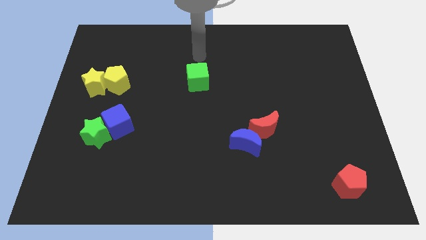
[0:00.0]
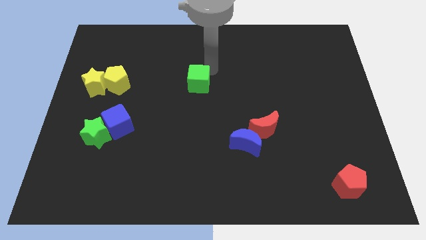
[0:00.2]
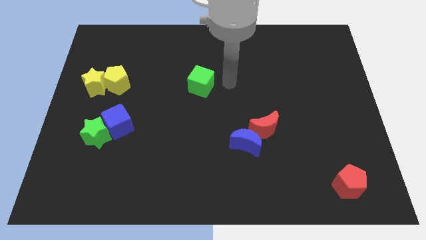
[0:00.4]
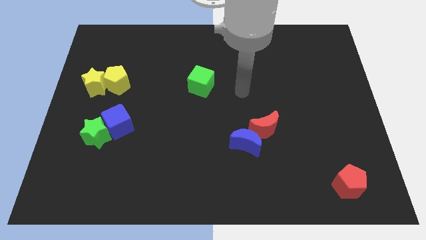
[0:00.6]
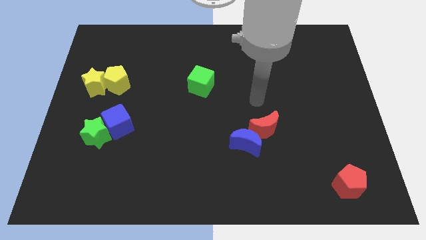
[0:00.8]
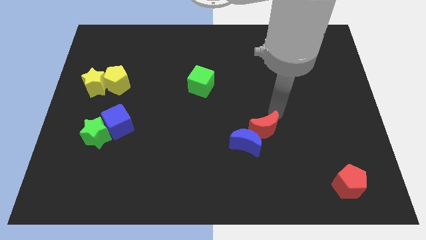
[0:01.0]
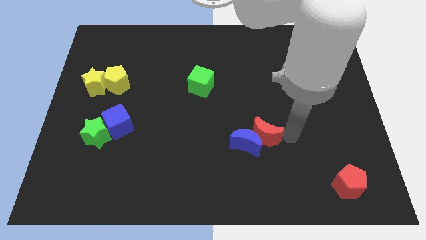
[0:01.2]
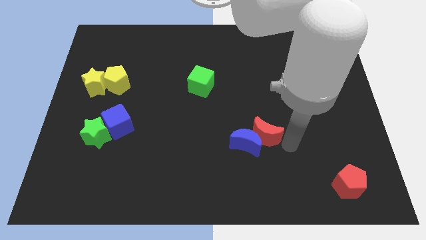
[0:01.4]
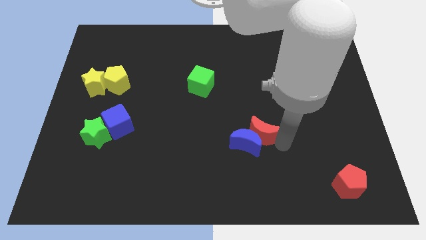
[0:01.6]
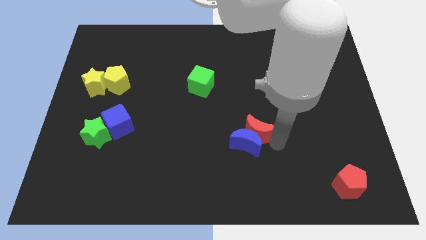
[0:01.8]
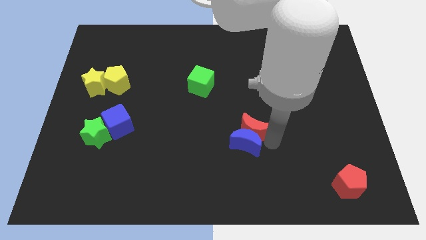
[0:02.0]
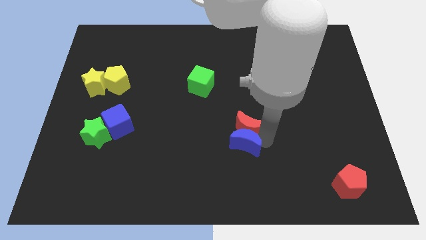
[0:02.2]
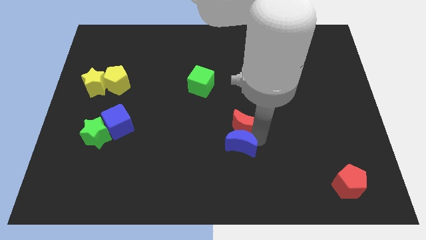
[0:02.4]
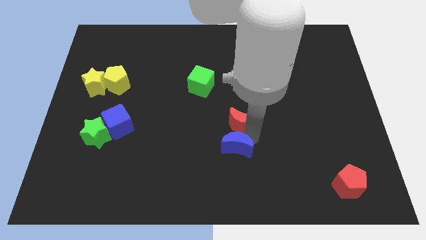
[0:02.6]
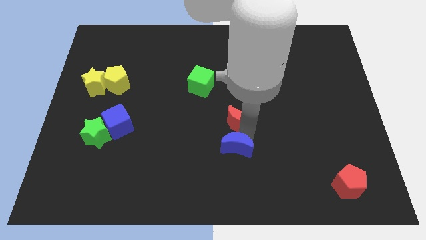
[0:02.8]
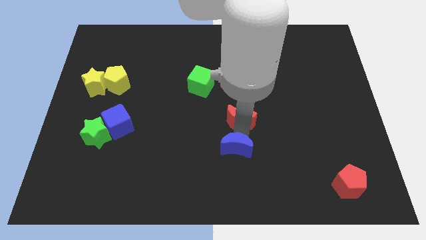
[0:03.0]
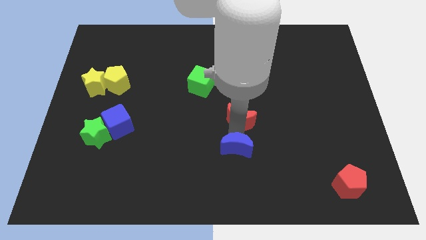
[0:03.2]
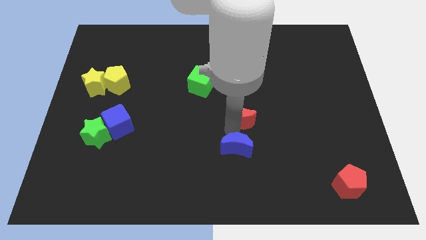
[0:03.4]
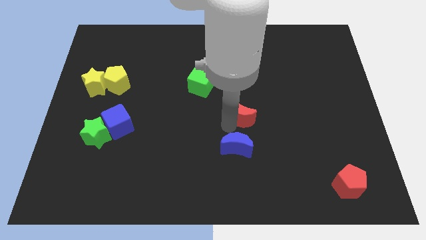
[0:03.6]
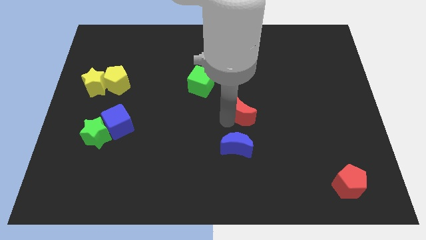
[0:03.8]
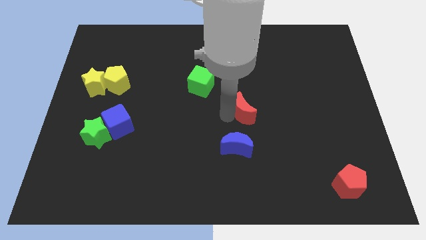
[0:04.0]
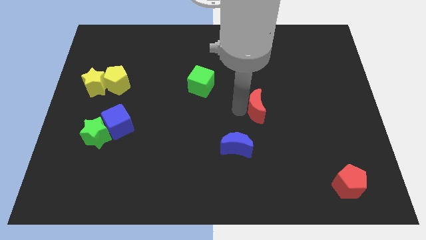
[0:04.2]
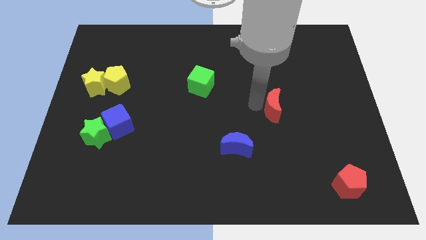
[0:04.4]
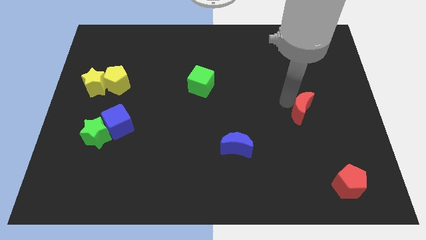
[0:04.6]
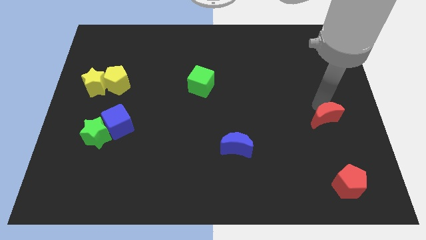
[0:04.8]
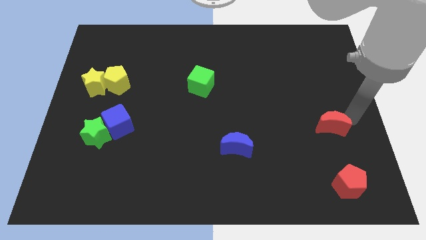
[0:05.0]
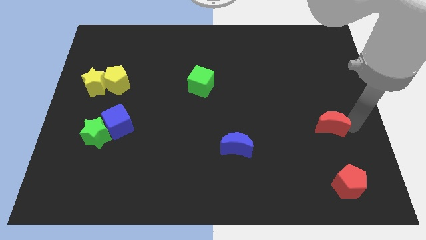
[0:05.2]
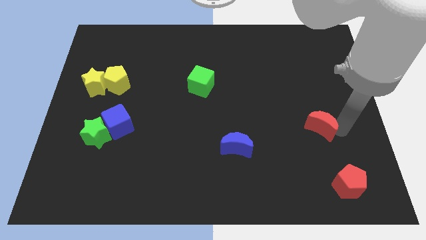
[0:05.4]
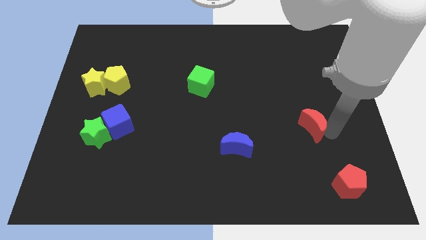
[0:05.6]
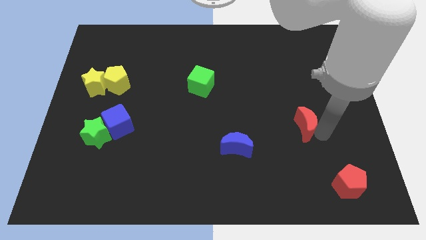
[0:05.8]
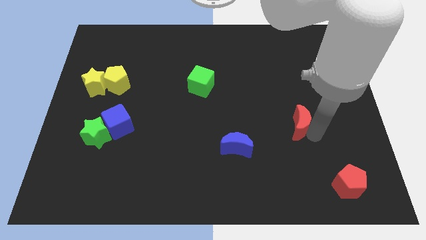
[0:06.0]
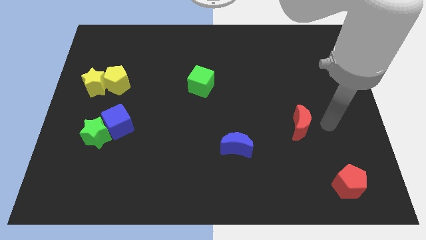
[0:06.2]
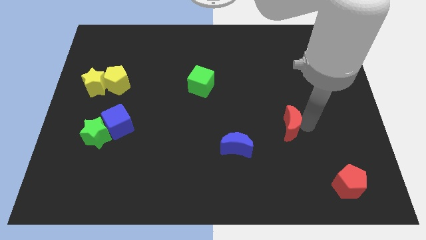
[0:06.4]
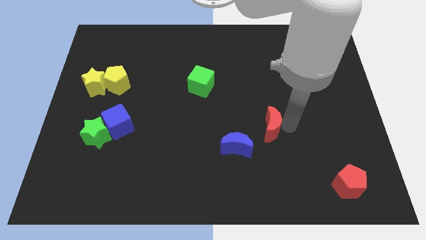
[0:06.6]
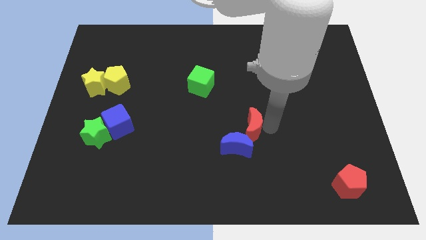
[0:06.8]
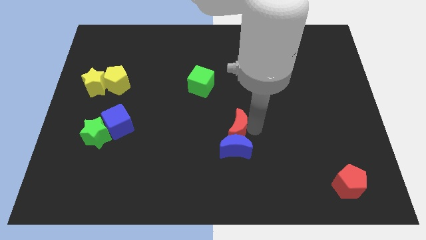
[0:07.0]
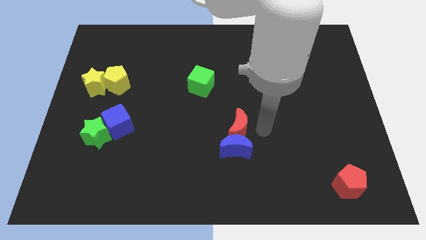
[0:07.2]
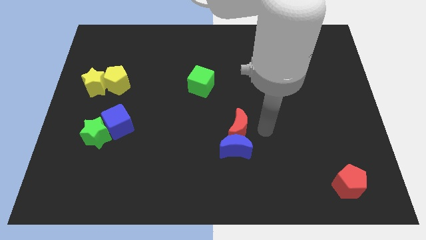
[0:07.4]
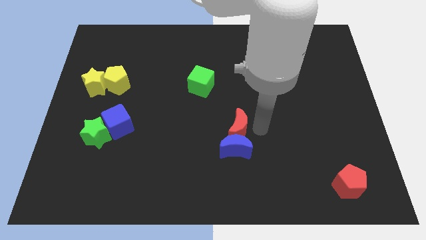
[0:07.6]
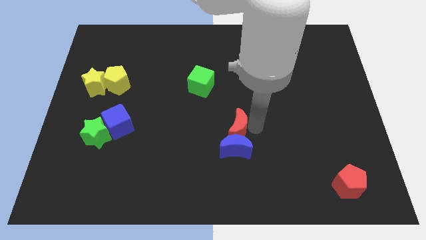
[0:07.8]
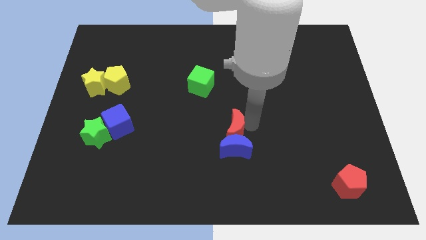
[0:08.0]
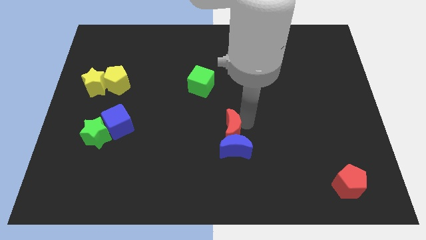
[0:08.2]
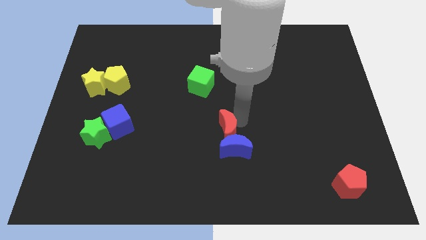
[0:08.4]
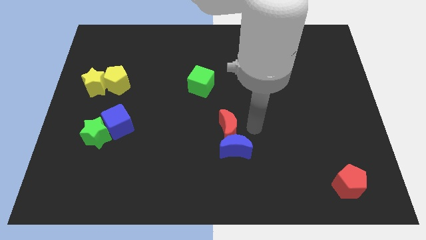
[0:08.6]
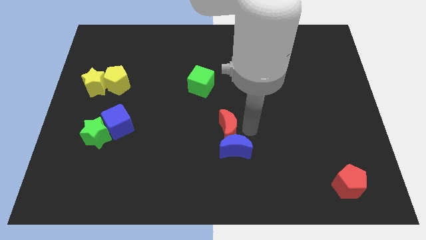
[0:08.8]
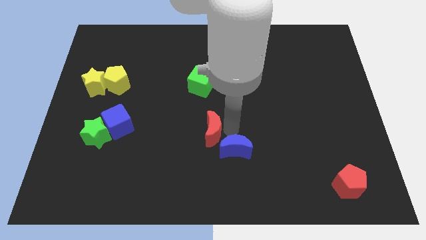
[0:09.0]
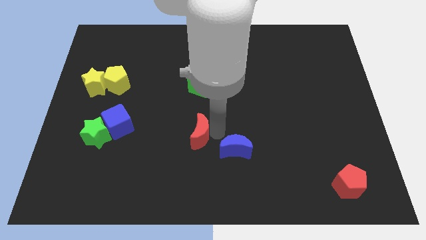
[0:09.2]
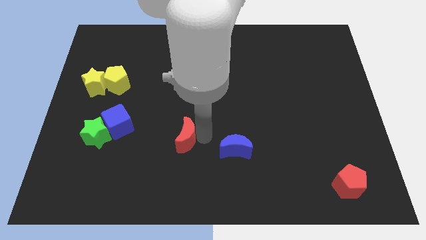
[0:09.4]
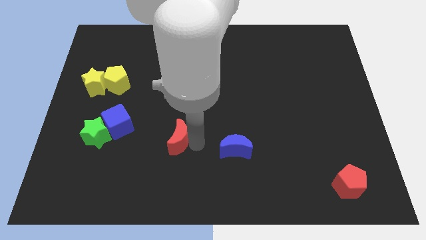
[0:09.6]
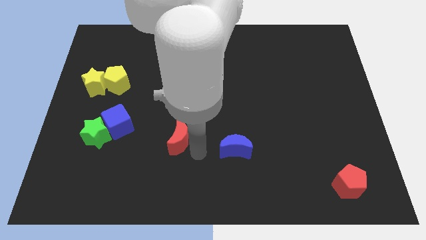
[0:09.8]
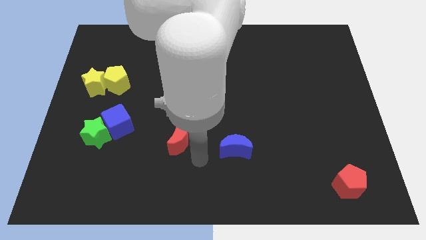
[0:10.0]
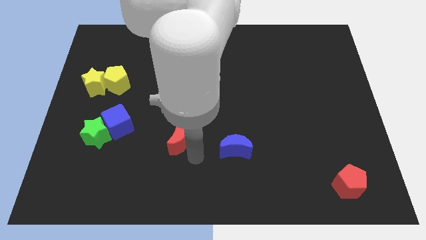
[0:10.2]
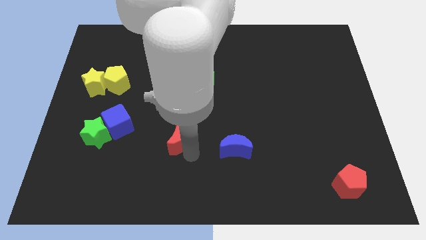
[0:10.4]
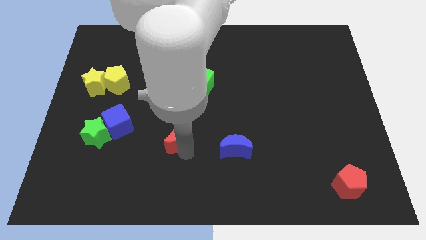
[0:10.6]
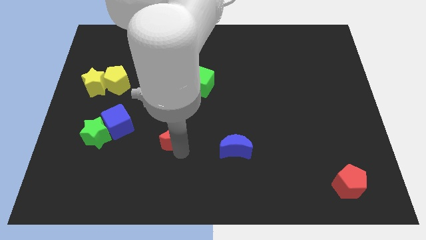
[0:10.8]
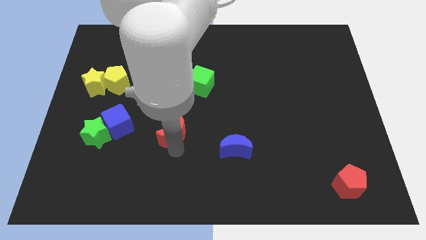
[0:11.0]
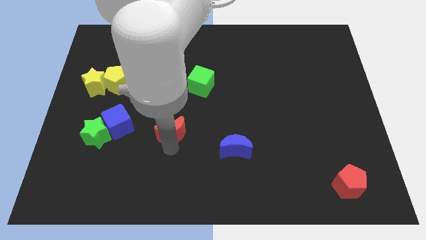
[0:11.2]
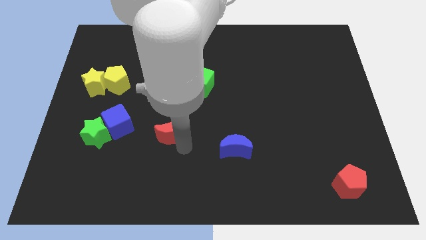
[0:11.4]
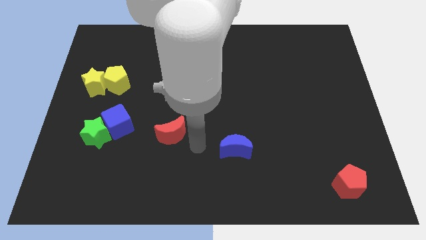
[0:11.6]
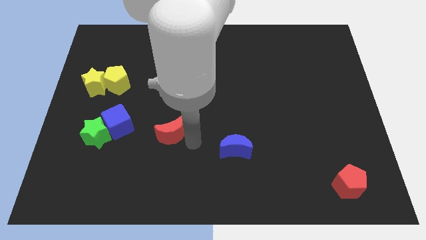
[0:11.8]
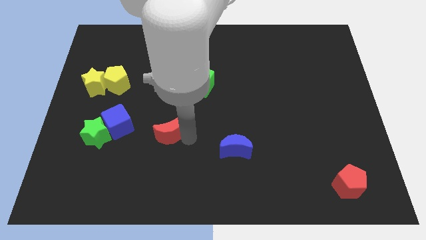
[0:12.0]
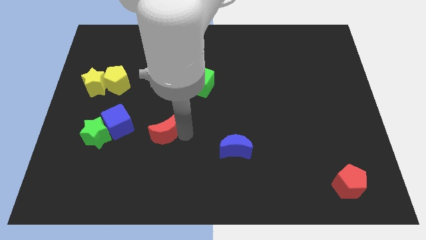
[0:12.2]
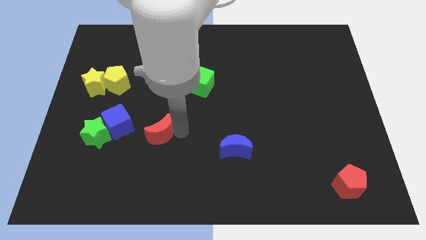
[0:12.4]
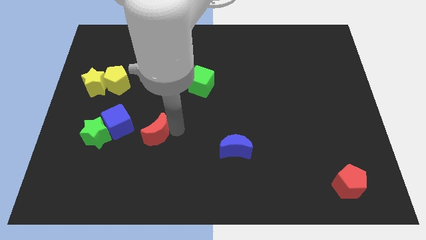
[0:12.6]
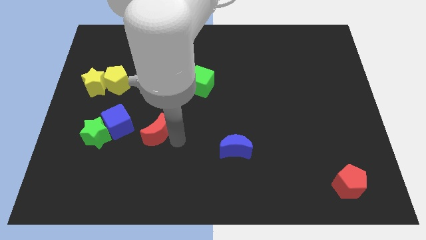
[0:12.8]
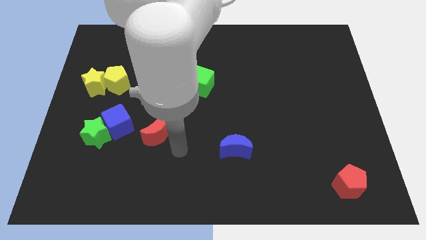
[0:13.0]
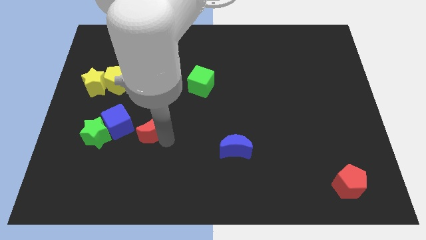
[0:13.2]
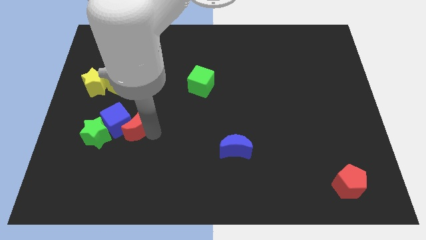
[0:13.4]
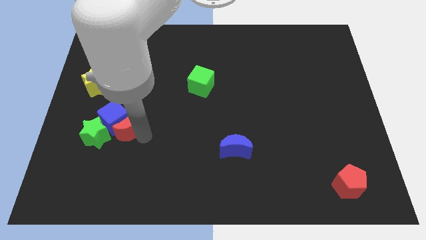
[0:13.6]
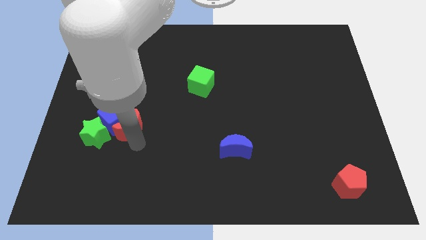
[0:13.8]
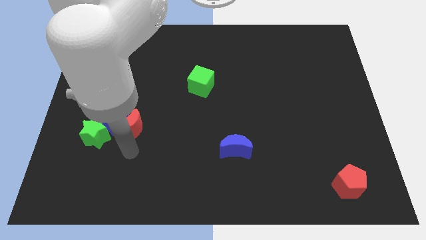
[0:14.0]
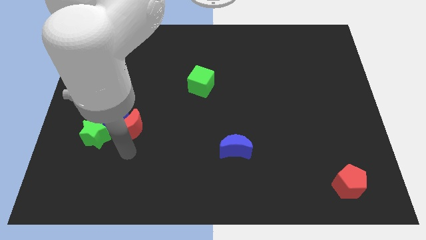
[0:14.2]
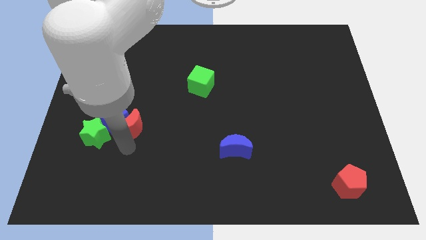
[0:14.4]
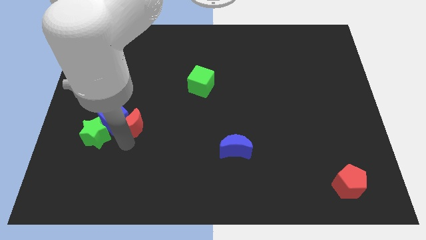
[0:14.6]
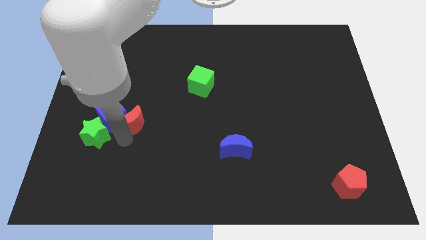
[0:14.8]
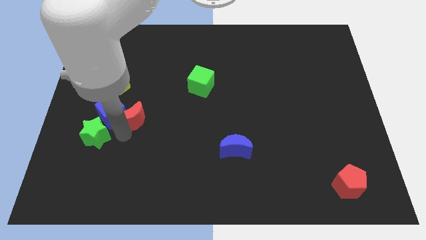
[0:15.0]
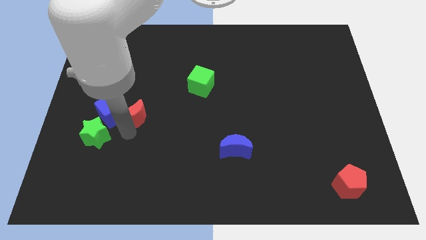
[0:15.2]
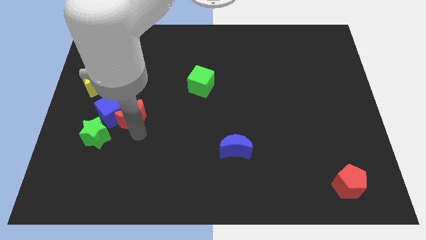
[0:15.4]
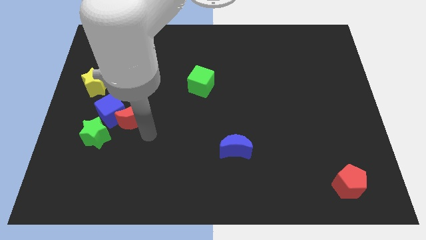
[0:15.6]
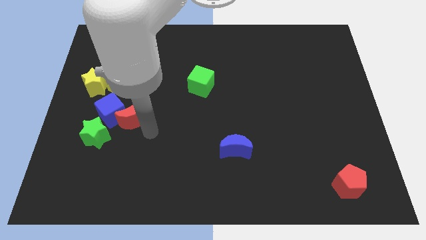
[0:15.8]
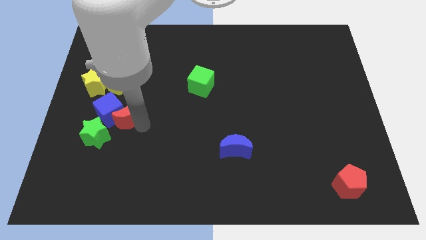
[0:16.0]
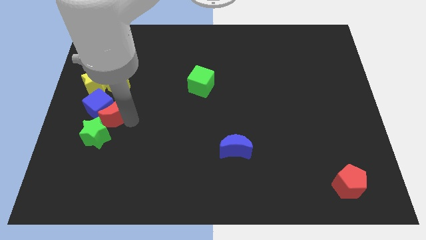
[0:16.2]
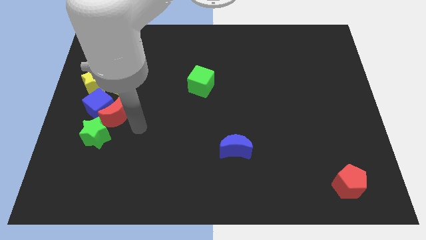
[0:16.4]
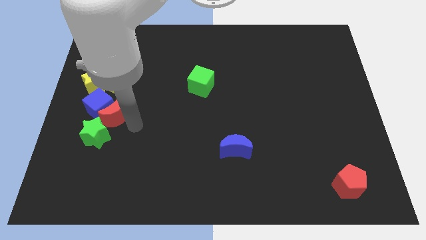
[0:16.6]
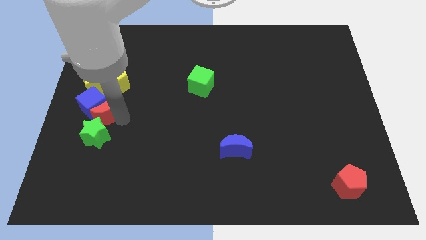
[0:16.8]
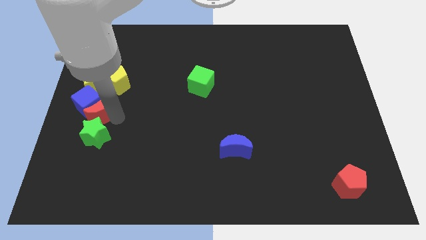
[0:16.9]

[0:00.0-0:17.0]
put the red moon to the left side
